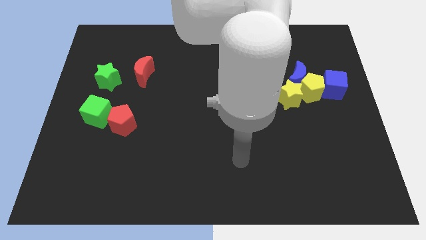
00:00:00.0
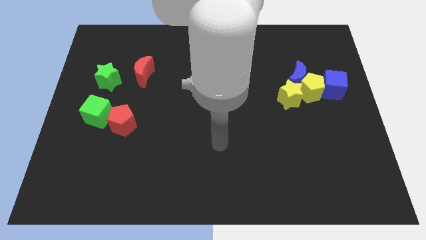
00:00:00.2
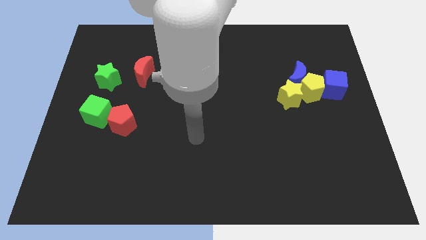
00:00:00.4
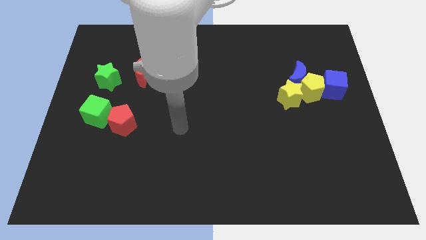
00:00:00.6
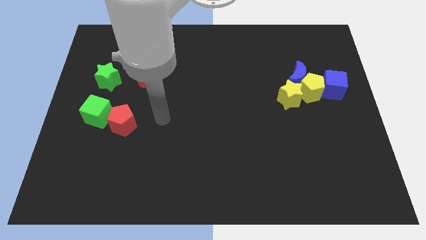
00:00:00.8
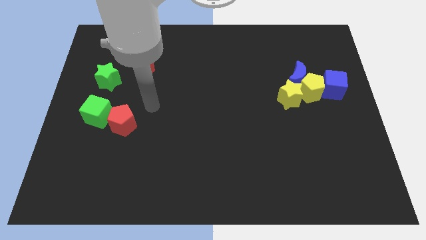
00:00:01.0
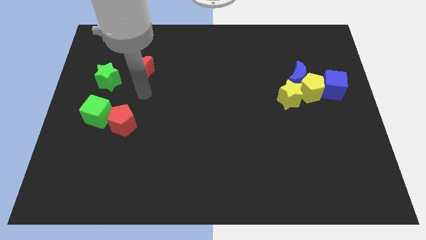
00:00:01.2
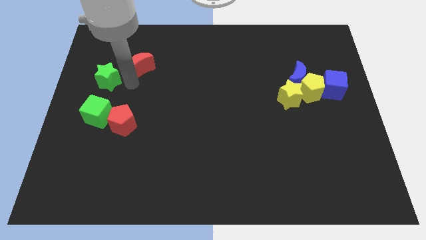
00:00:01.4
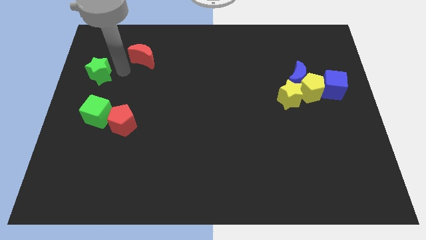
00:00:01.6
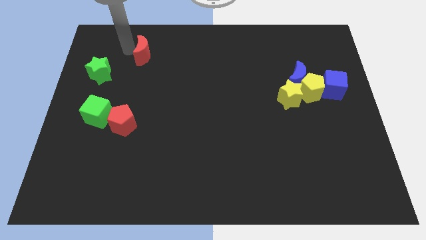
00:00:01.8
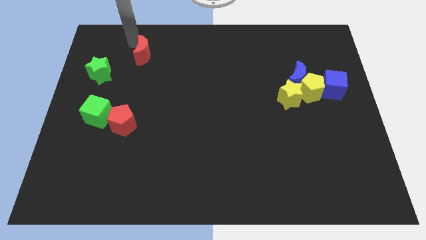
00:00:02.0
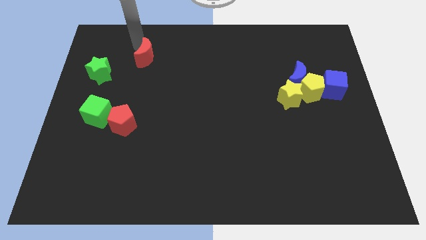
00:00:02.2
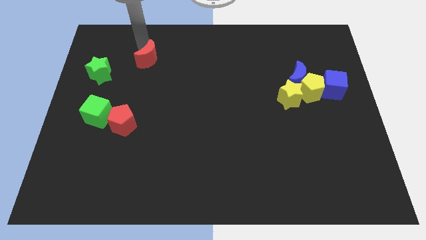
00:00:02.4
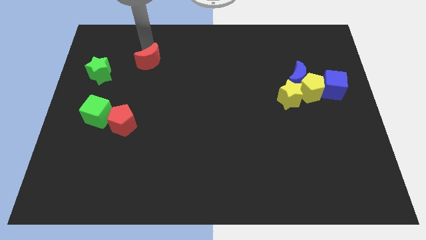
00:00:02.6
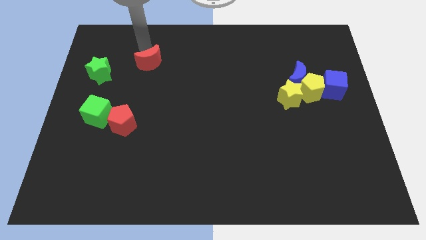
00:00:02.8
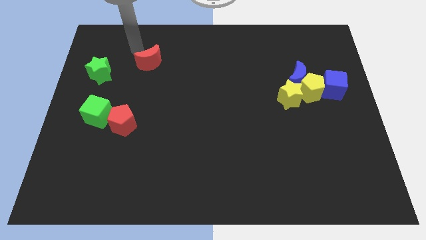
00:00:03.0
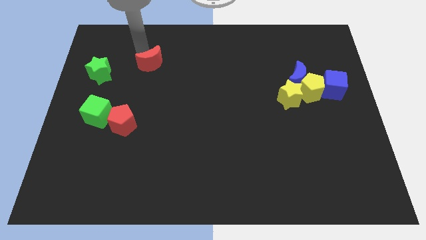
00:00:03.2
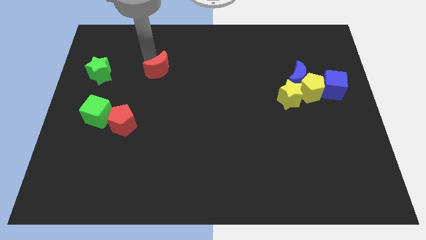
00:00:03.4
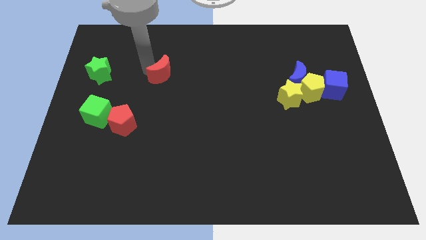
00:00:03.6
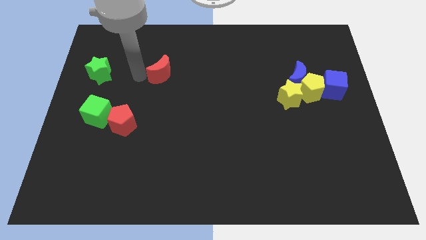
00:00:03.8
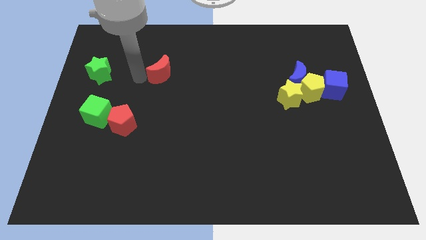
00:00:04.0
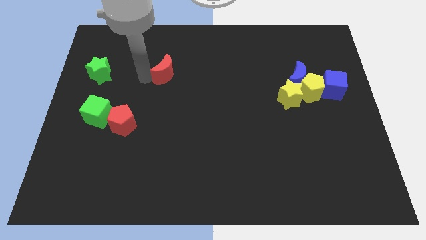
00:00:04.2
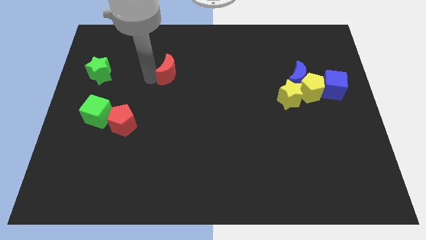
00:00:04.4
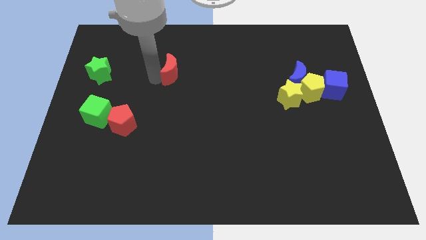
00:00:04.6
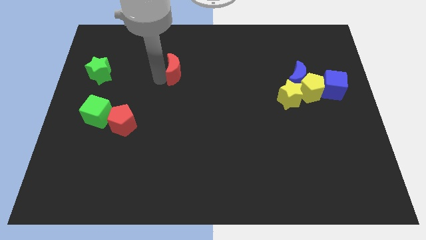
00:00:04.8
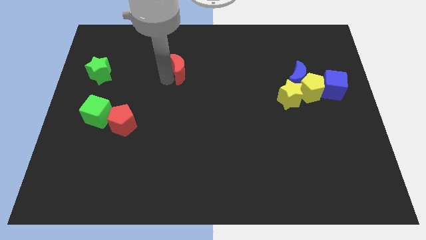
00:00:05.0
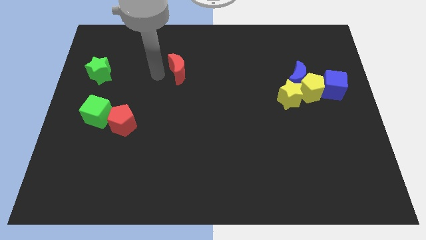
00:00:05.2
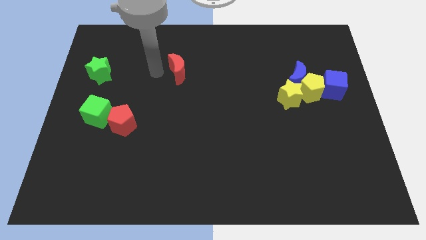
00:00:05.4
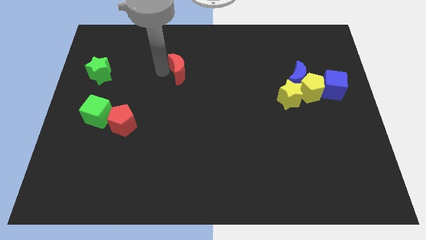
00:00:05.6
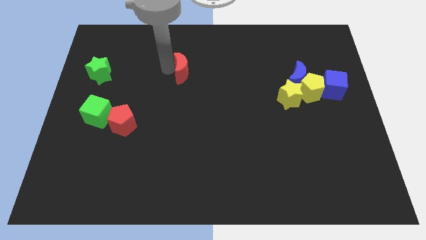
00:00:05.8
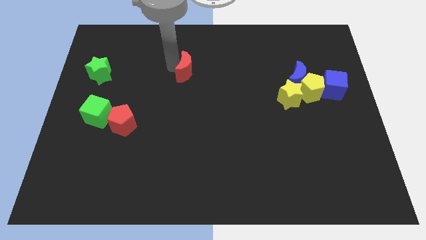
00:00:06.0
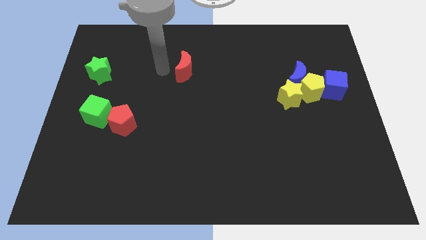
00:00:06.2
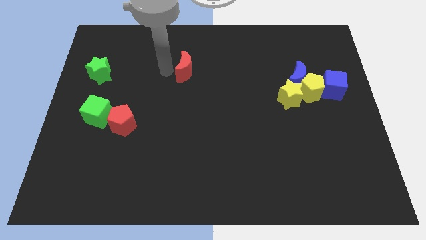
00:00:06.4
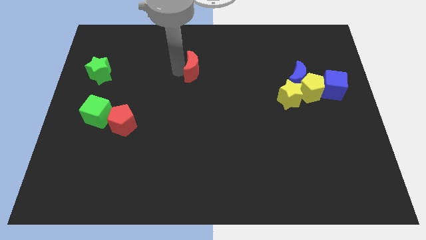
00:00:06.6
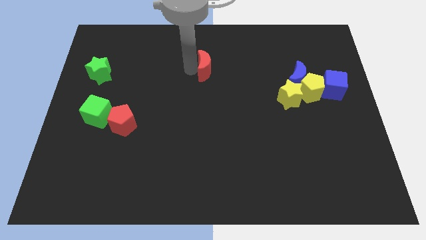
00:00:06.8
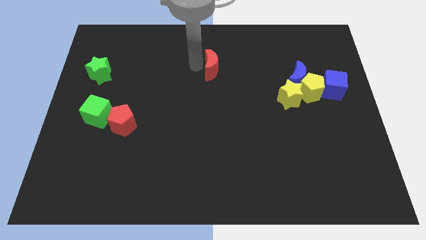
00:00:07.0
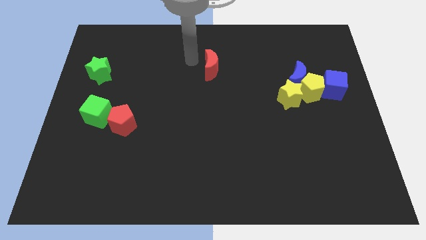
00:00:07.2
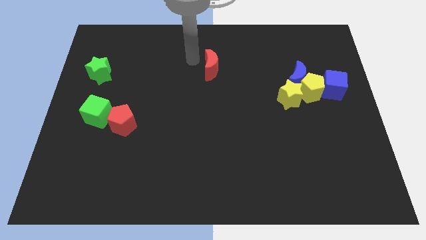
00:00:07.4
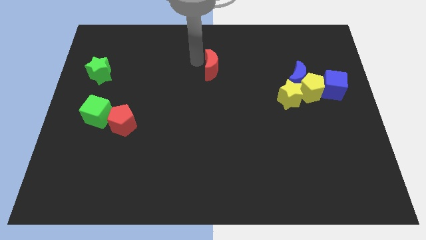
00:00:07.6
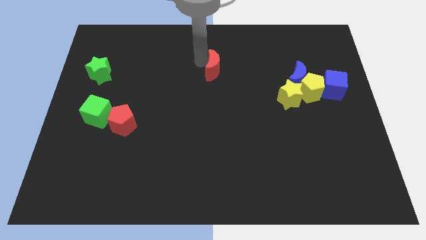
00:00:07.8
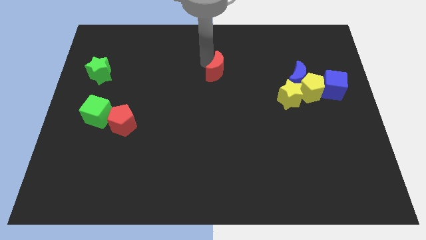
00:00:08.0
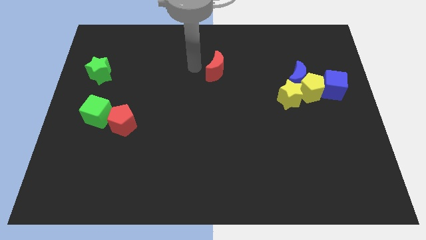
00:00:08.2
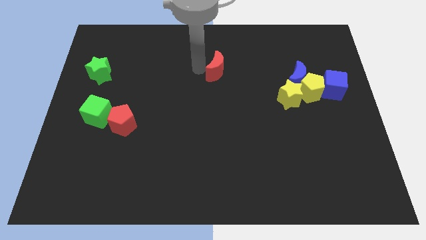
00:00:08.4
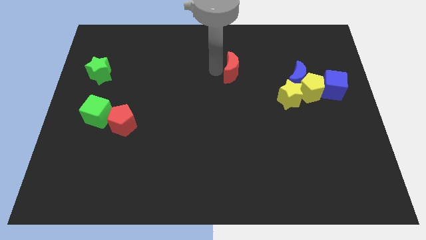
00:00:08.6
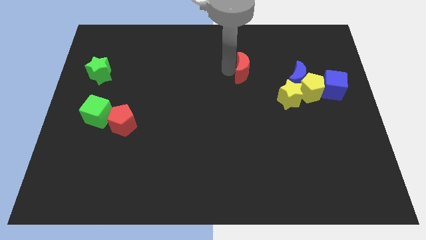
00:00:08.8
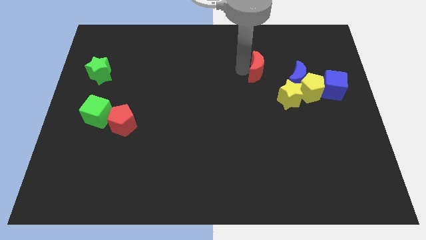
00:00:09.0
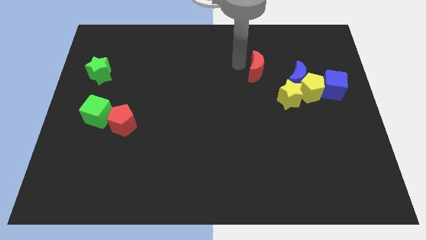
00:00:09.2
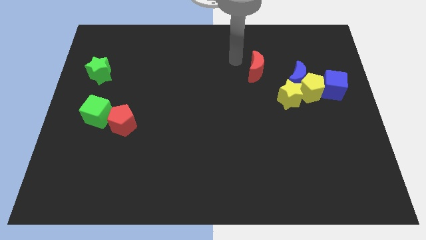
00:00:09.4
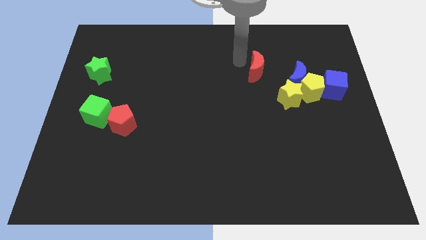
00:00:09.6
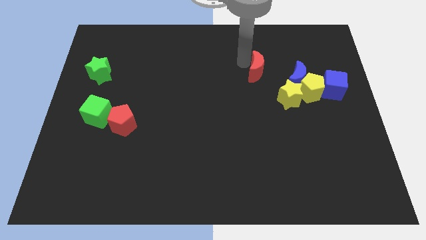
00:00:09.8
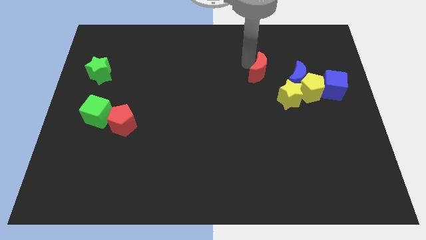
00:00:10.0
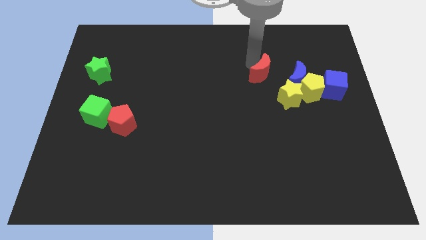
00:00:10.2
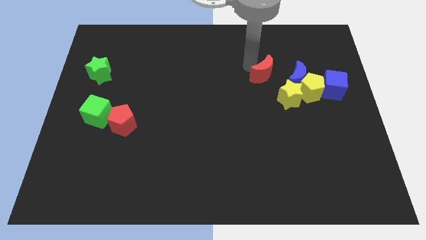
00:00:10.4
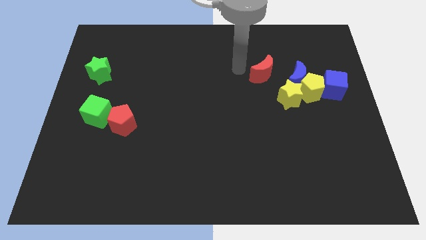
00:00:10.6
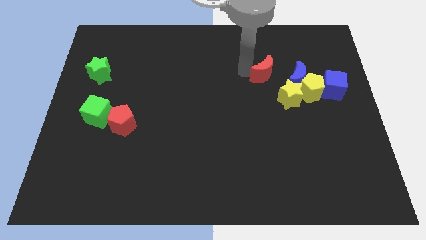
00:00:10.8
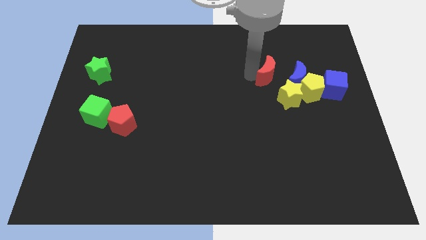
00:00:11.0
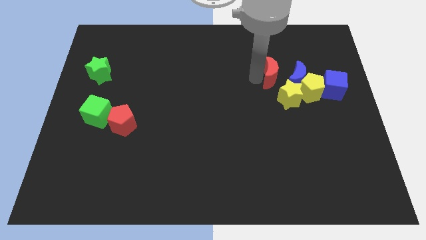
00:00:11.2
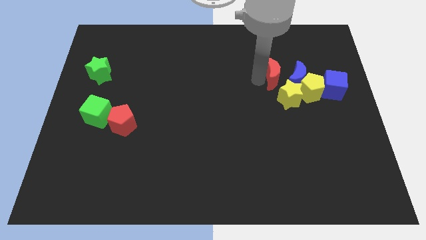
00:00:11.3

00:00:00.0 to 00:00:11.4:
put the red moon next to the blue moon

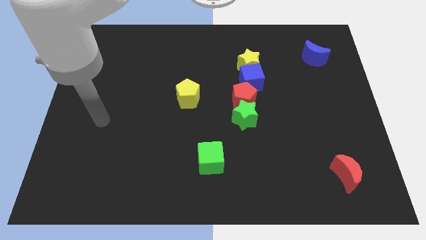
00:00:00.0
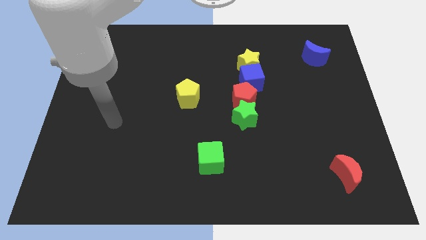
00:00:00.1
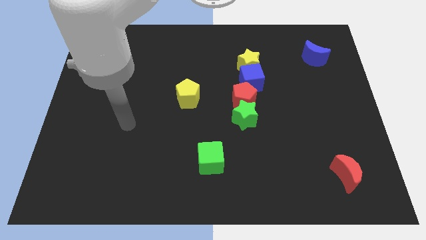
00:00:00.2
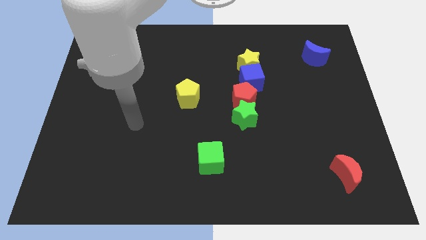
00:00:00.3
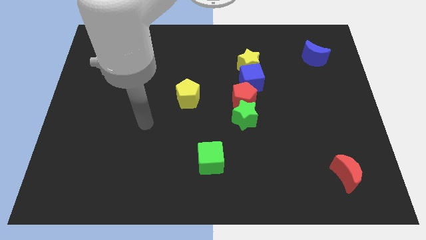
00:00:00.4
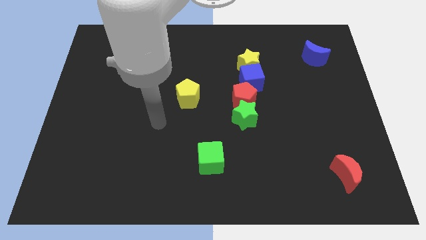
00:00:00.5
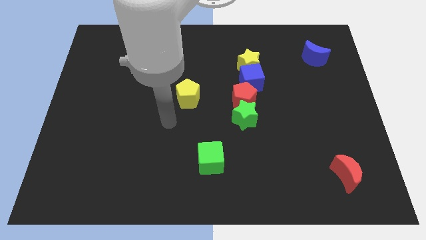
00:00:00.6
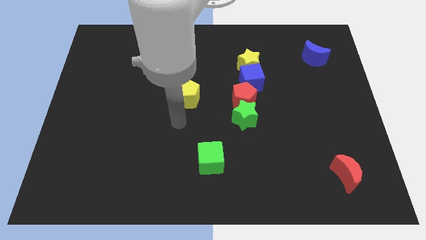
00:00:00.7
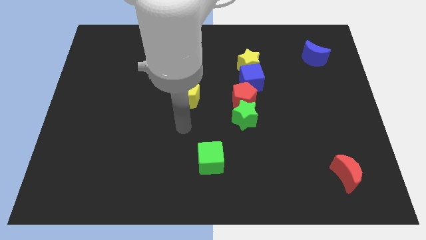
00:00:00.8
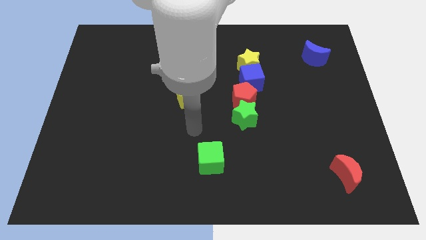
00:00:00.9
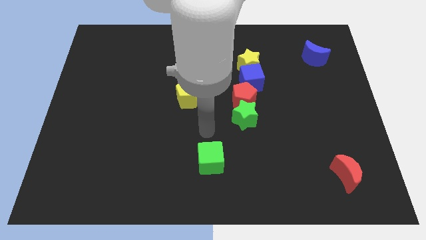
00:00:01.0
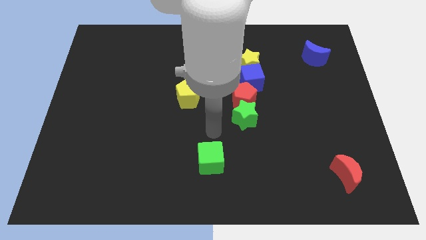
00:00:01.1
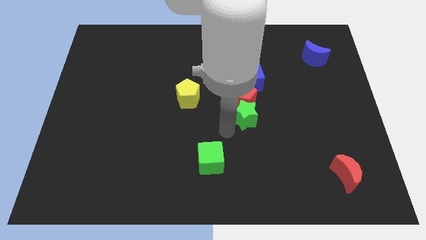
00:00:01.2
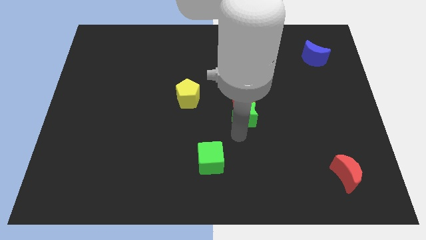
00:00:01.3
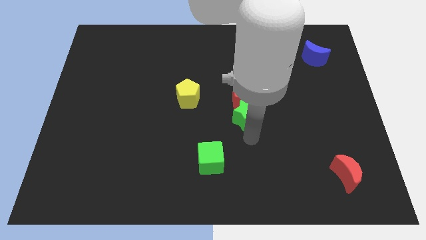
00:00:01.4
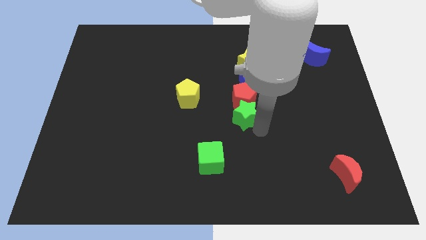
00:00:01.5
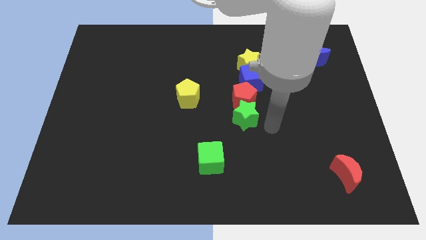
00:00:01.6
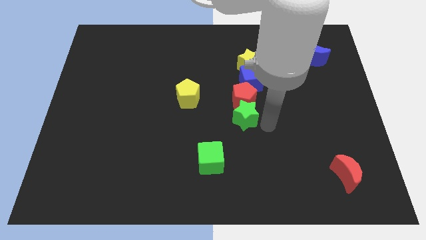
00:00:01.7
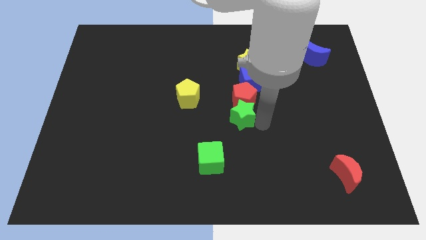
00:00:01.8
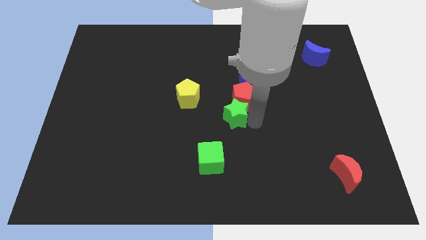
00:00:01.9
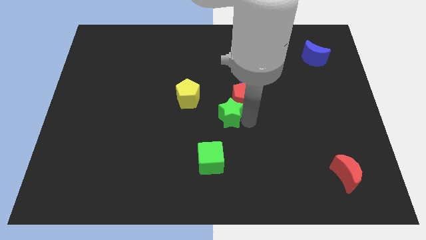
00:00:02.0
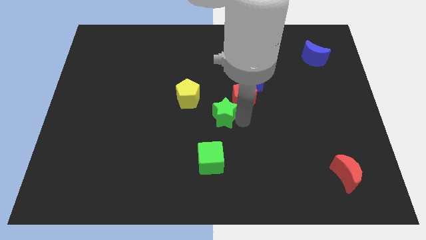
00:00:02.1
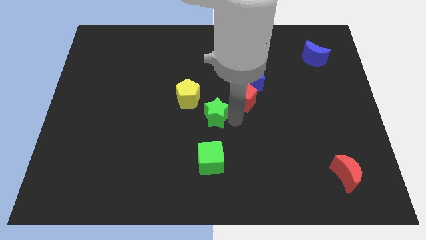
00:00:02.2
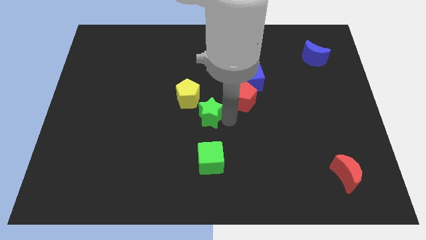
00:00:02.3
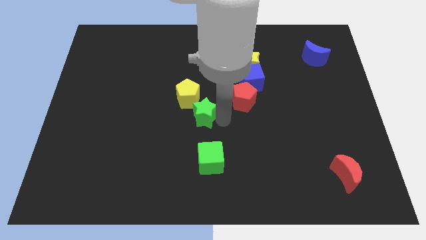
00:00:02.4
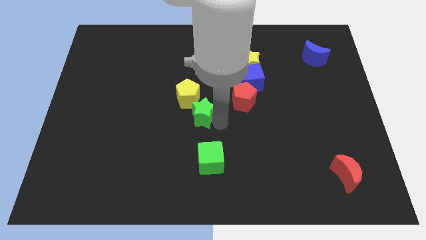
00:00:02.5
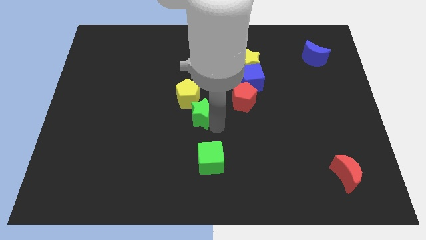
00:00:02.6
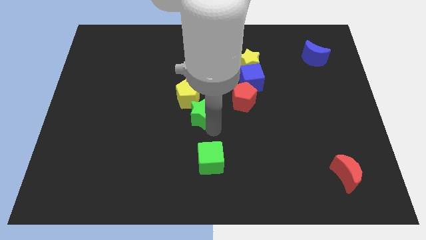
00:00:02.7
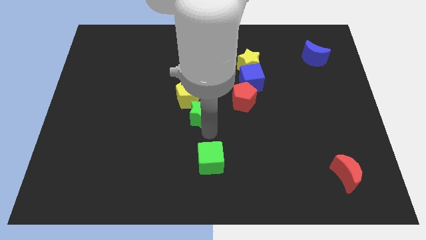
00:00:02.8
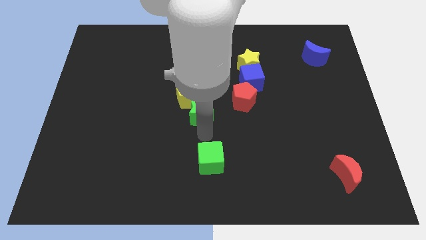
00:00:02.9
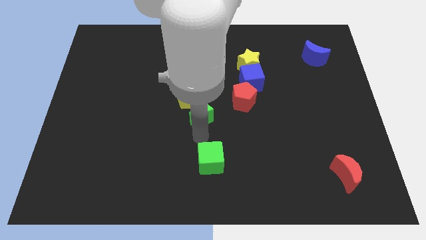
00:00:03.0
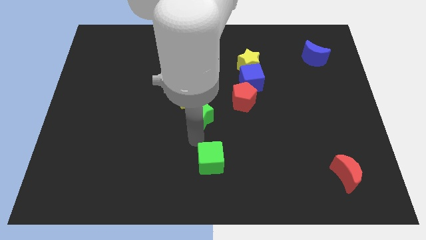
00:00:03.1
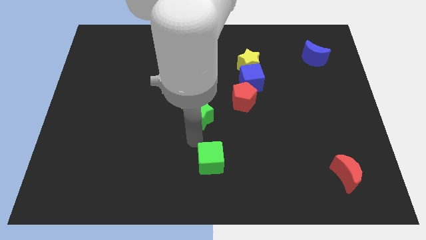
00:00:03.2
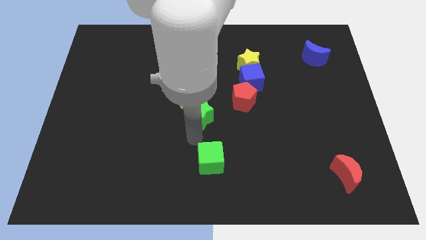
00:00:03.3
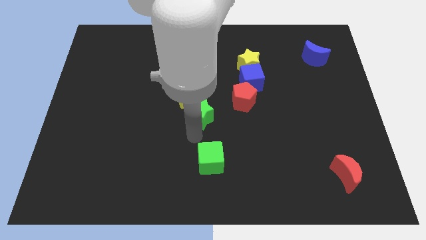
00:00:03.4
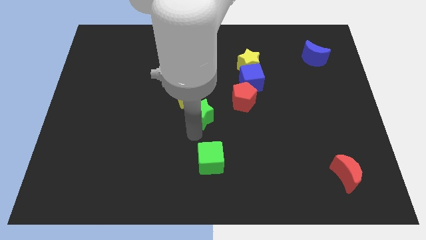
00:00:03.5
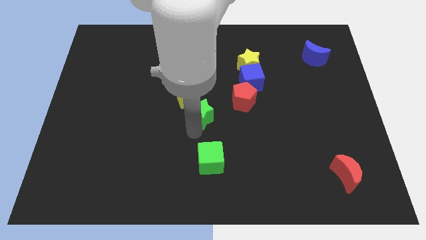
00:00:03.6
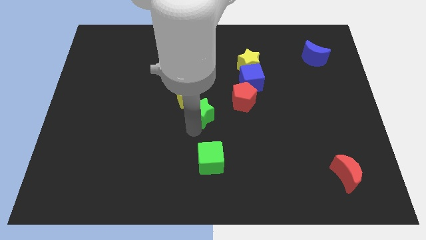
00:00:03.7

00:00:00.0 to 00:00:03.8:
move the green star towards the yellow pentagon
